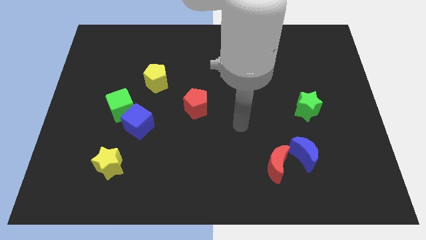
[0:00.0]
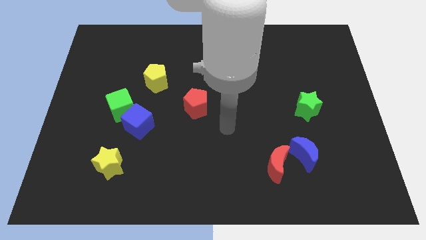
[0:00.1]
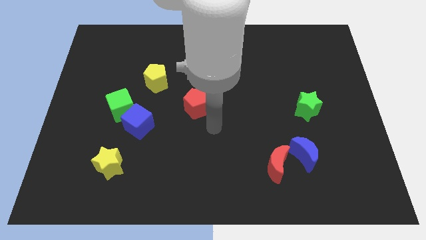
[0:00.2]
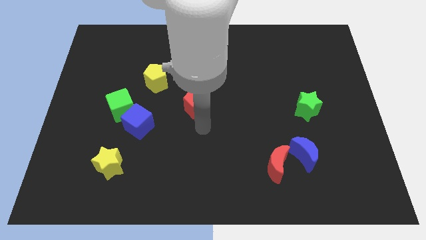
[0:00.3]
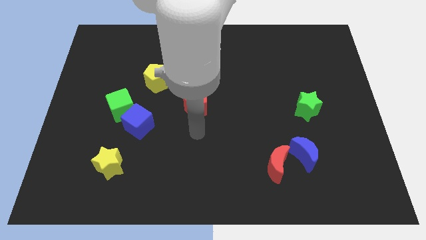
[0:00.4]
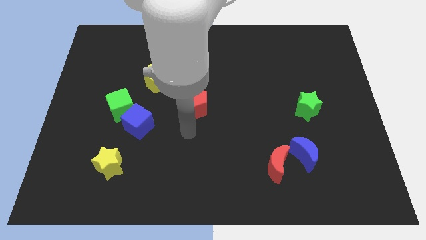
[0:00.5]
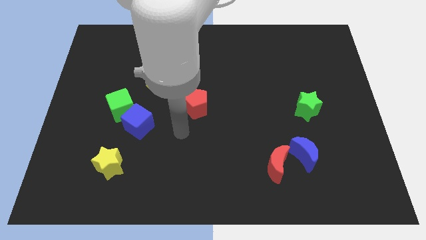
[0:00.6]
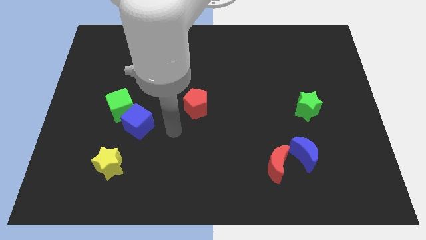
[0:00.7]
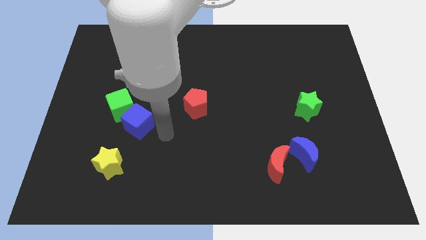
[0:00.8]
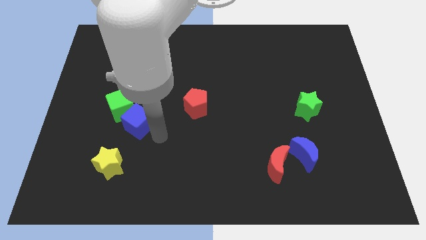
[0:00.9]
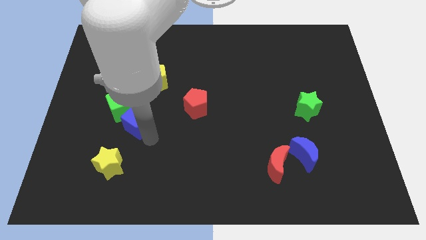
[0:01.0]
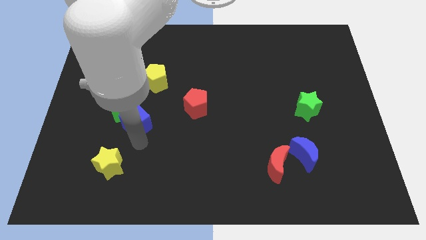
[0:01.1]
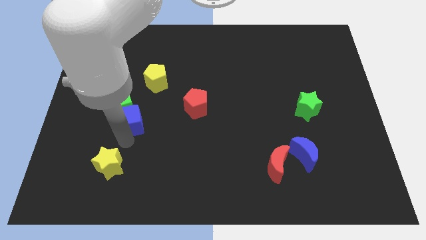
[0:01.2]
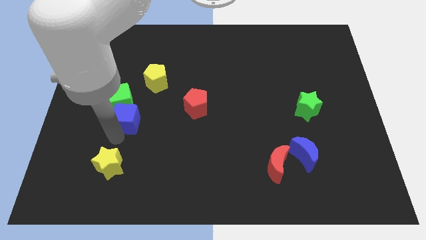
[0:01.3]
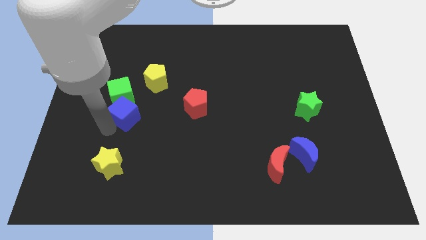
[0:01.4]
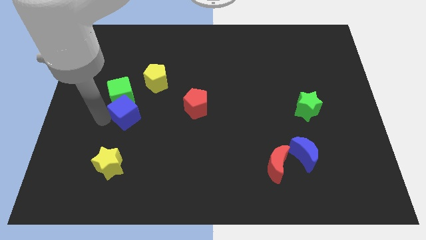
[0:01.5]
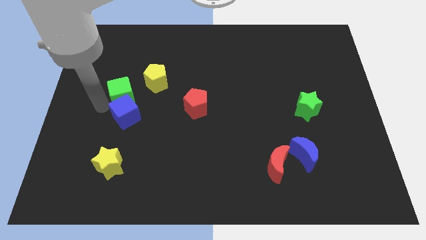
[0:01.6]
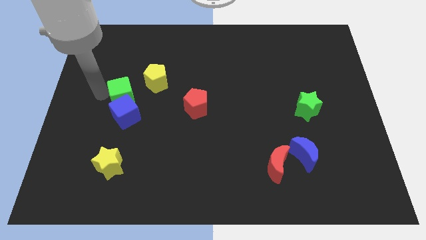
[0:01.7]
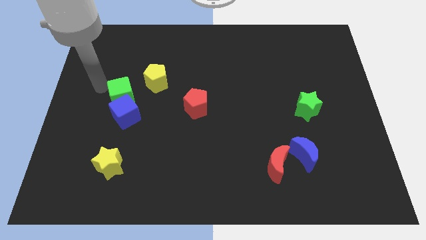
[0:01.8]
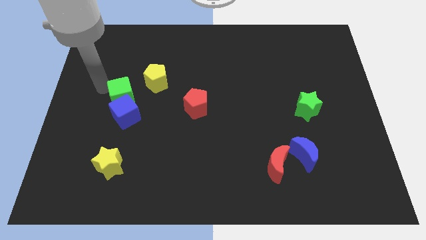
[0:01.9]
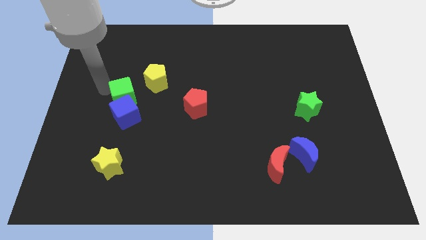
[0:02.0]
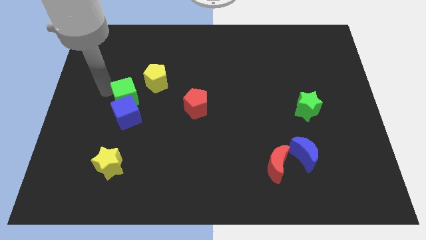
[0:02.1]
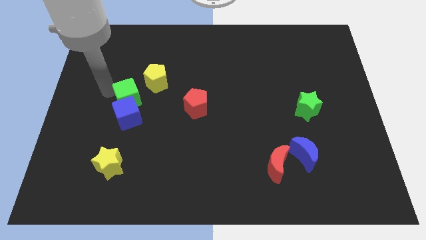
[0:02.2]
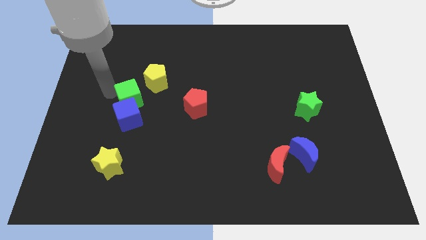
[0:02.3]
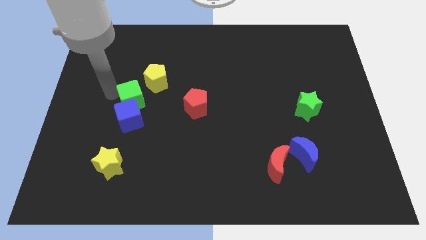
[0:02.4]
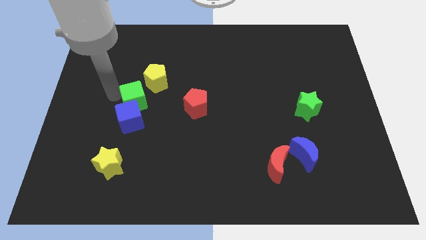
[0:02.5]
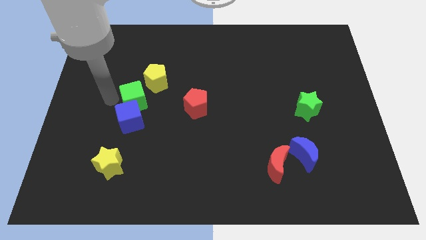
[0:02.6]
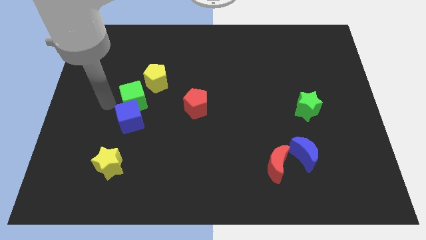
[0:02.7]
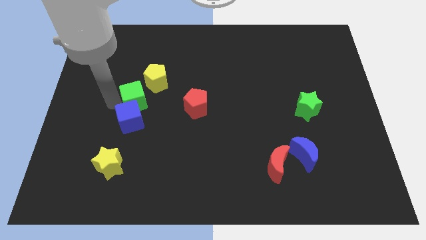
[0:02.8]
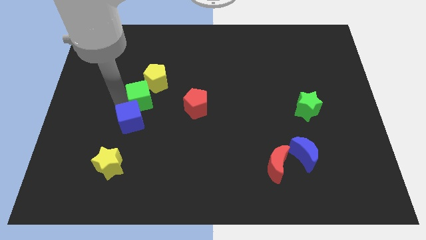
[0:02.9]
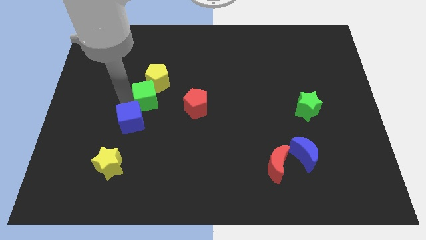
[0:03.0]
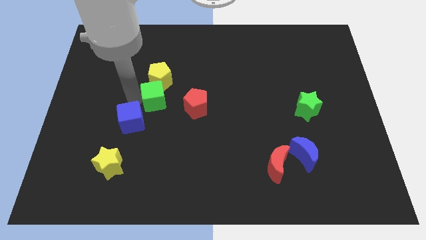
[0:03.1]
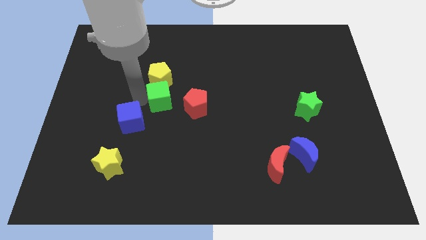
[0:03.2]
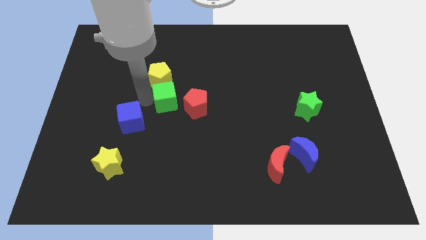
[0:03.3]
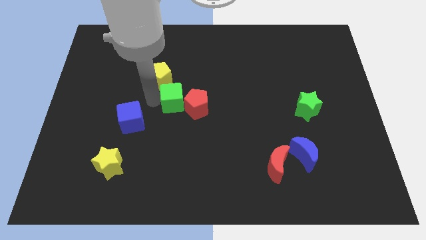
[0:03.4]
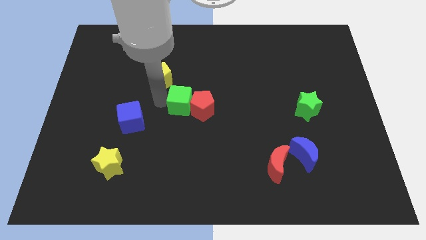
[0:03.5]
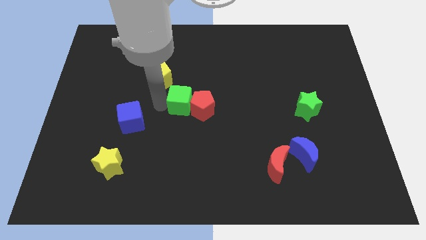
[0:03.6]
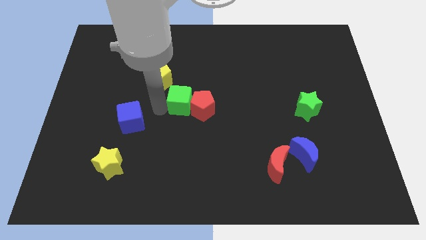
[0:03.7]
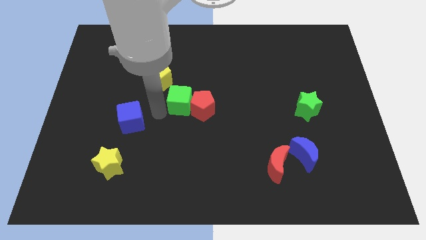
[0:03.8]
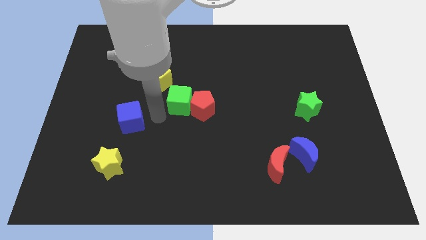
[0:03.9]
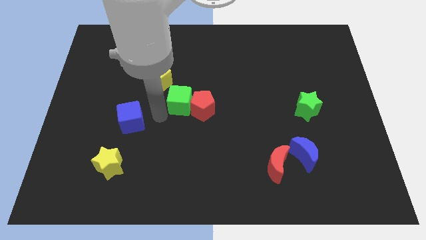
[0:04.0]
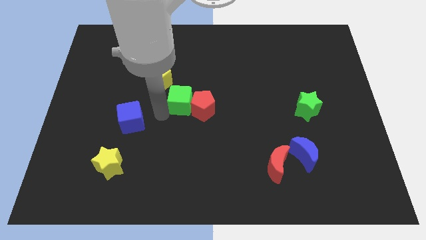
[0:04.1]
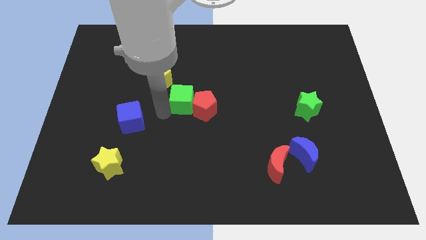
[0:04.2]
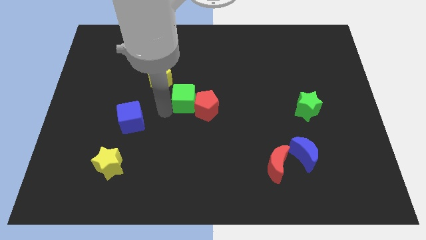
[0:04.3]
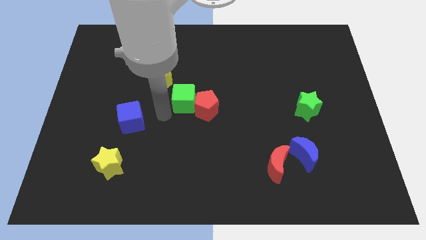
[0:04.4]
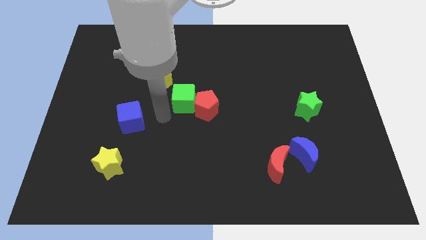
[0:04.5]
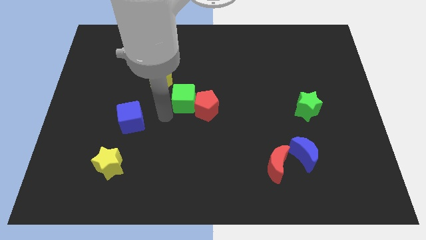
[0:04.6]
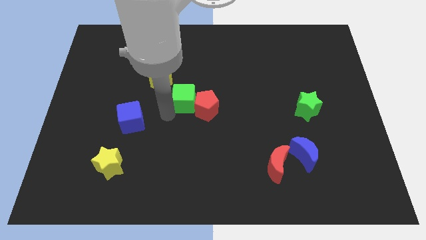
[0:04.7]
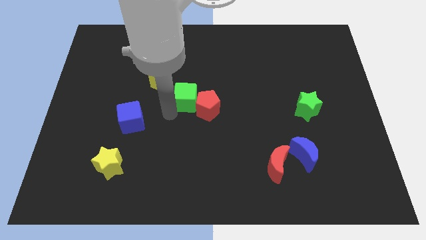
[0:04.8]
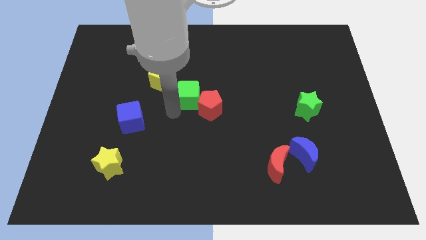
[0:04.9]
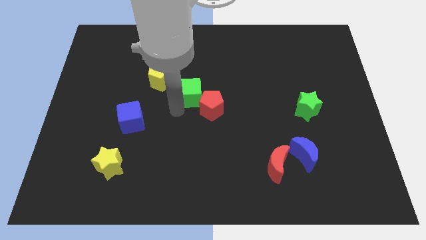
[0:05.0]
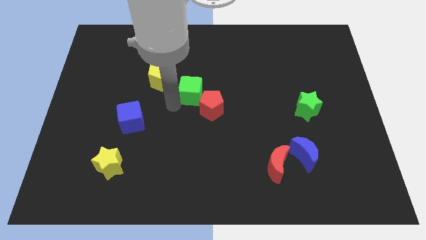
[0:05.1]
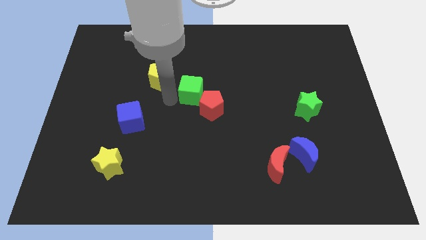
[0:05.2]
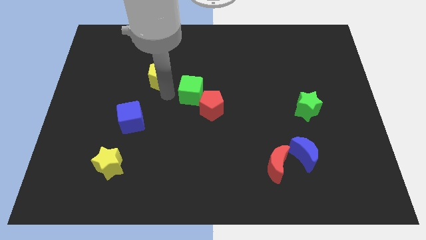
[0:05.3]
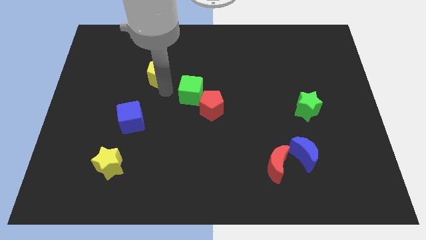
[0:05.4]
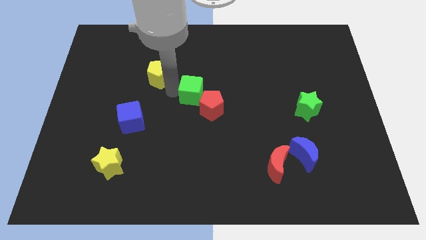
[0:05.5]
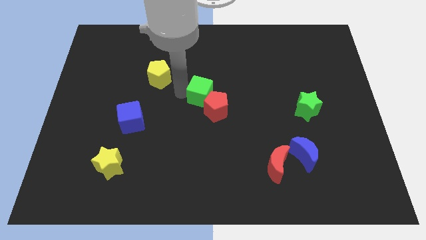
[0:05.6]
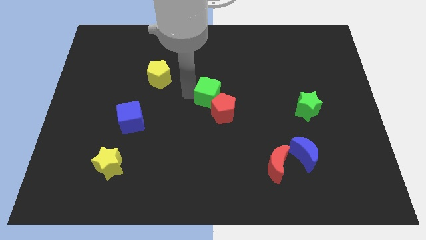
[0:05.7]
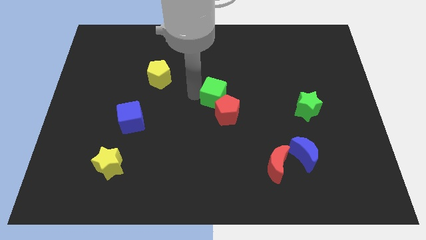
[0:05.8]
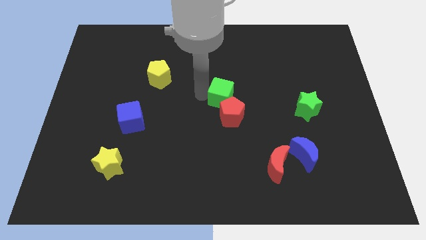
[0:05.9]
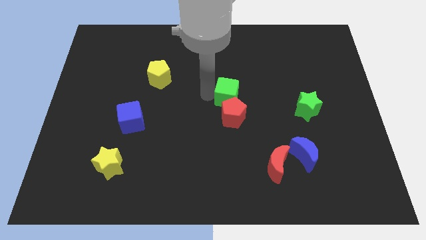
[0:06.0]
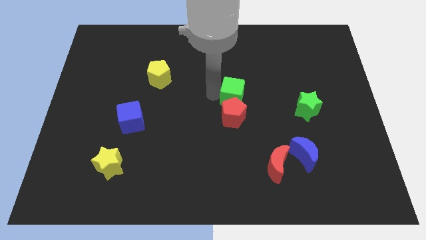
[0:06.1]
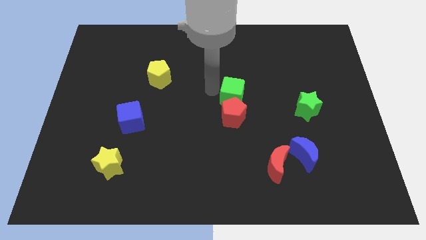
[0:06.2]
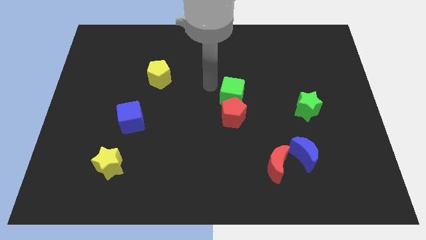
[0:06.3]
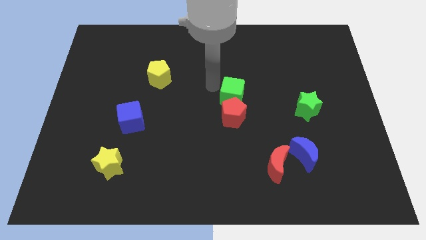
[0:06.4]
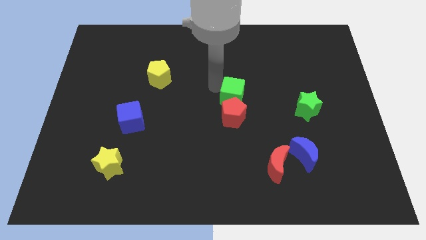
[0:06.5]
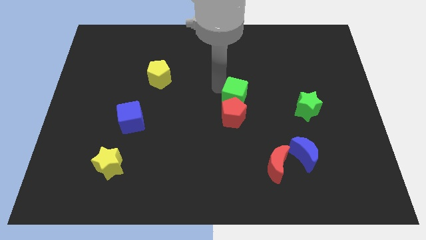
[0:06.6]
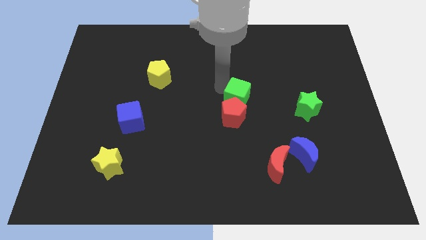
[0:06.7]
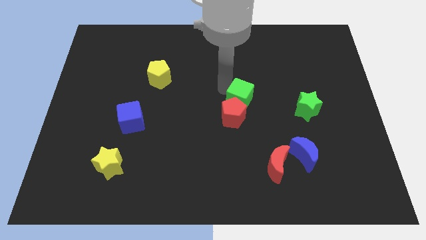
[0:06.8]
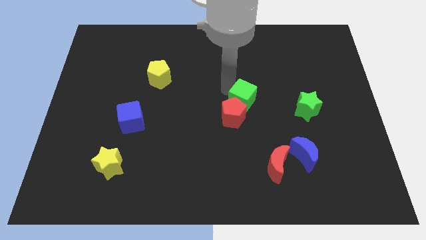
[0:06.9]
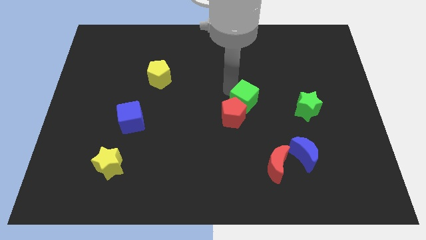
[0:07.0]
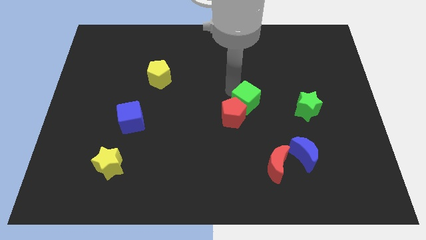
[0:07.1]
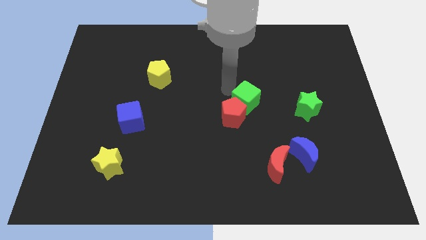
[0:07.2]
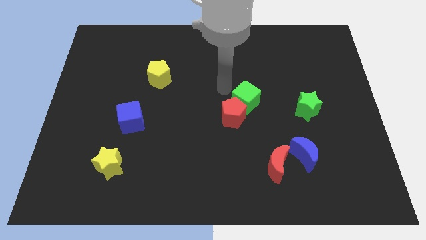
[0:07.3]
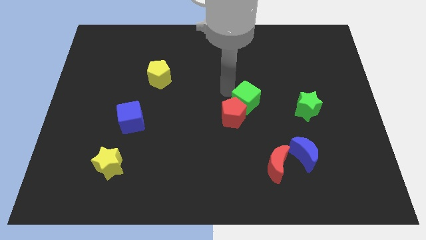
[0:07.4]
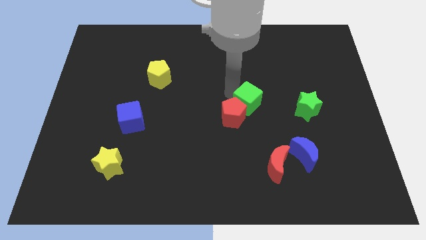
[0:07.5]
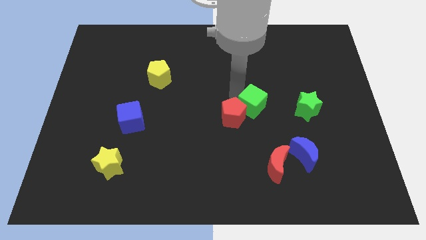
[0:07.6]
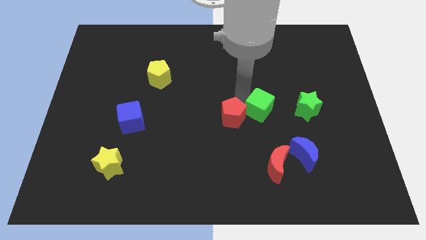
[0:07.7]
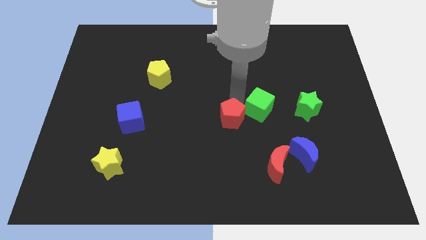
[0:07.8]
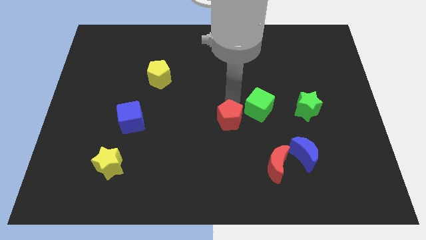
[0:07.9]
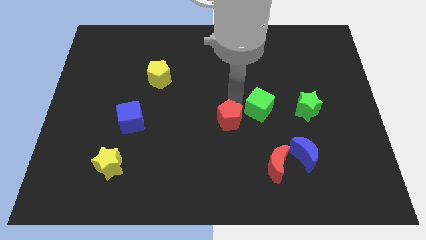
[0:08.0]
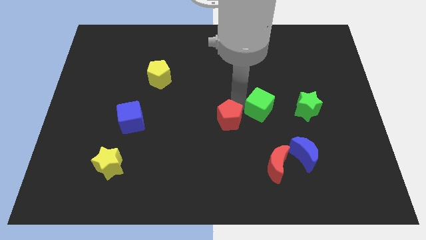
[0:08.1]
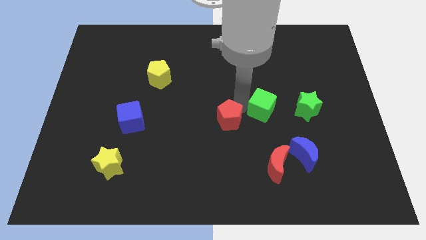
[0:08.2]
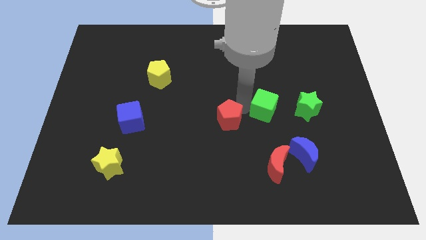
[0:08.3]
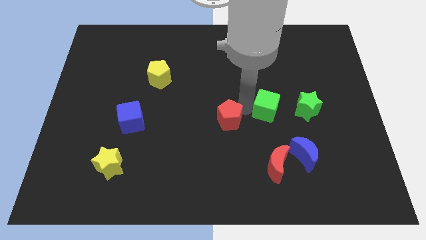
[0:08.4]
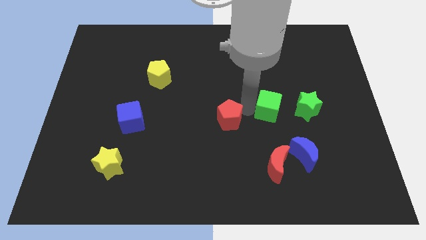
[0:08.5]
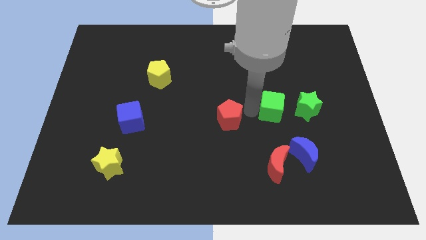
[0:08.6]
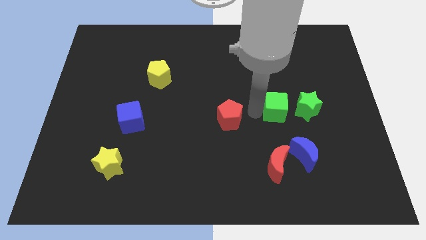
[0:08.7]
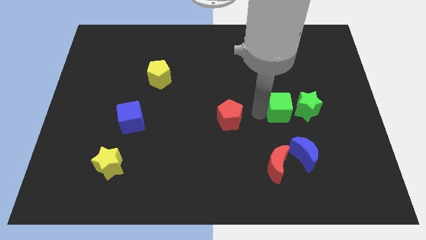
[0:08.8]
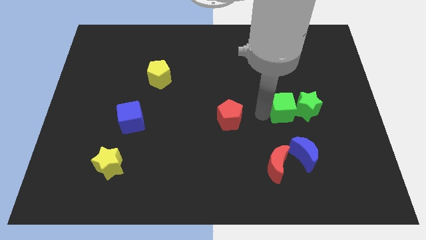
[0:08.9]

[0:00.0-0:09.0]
put the green cube next to the green star
